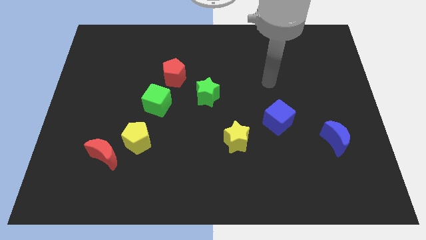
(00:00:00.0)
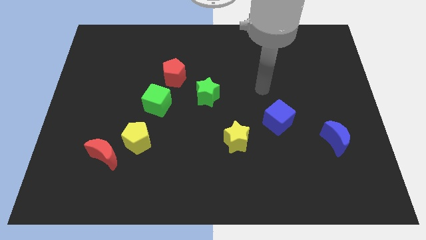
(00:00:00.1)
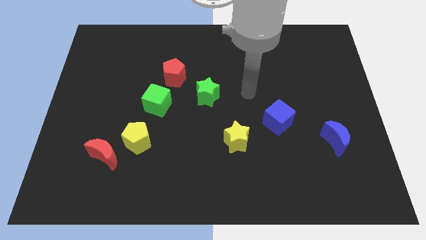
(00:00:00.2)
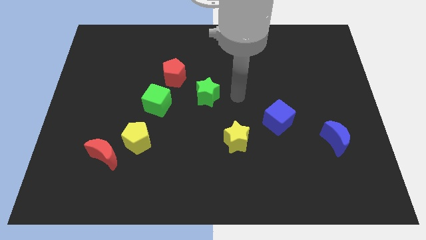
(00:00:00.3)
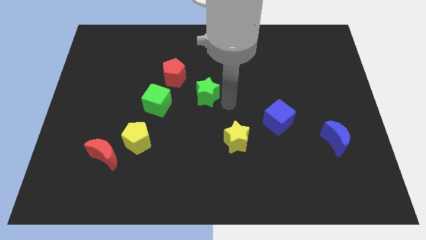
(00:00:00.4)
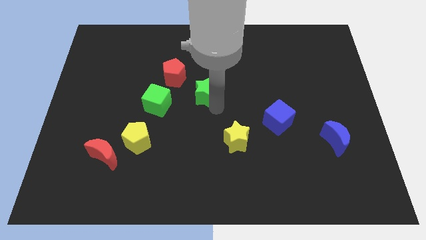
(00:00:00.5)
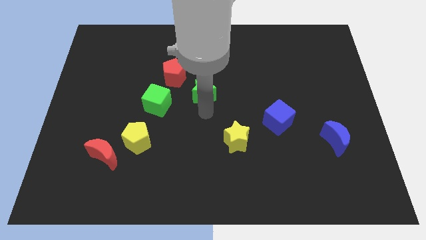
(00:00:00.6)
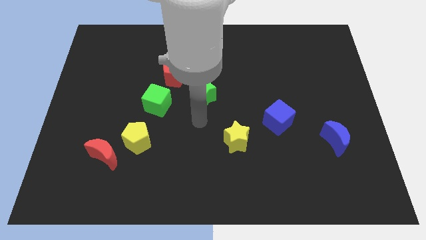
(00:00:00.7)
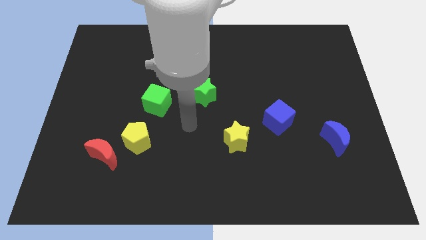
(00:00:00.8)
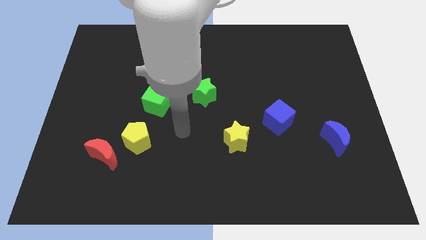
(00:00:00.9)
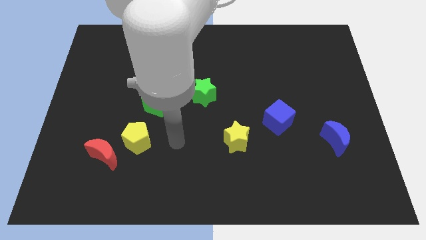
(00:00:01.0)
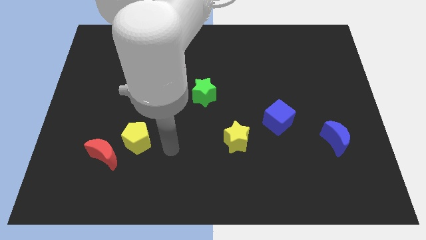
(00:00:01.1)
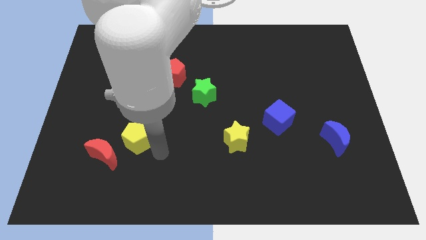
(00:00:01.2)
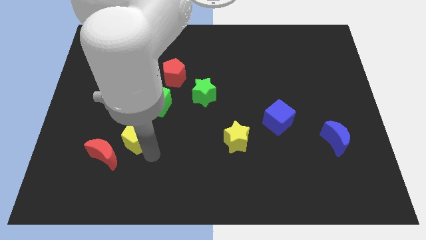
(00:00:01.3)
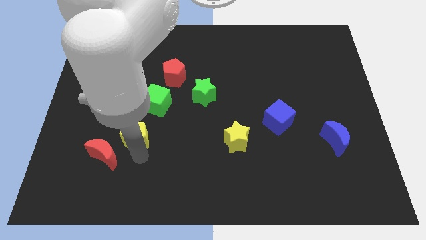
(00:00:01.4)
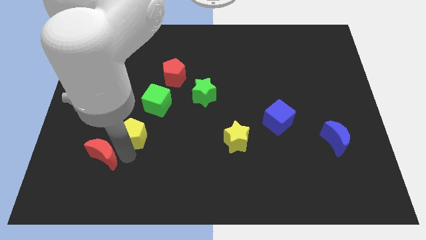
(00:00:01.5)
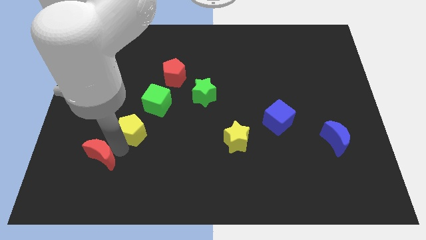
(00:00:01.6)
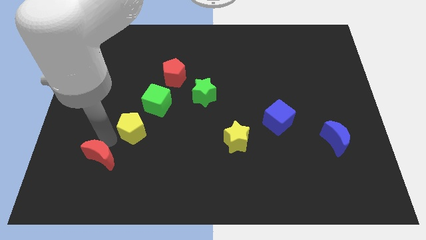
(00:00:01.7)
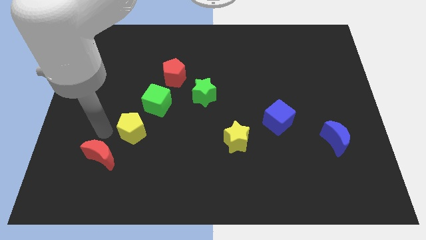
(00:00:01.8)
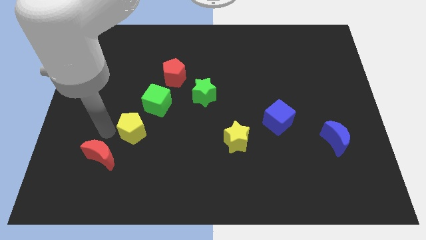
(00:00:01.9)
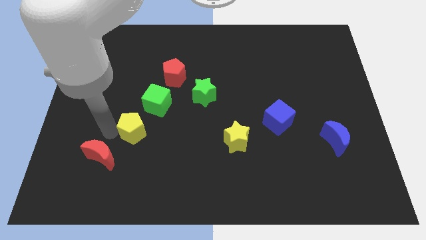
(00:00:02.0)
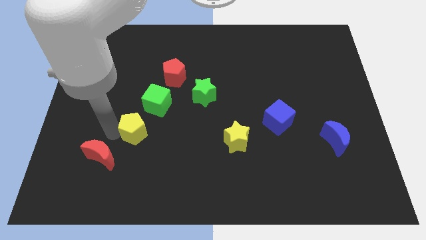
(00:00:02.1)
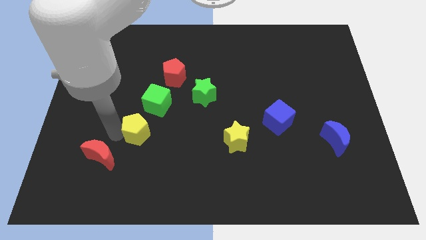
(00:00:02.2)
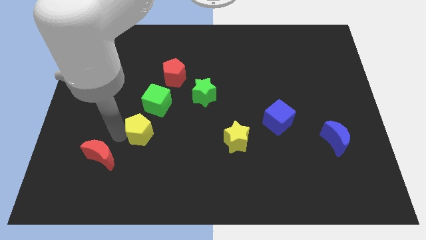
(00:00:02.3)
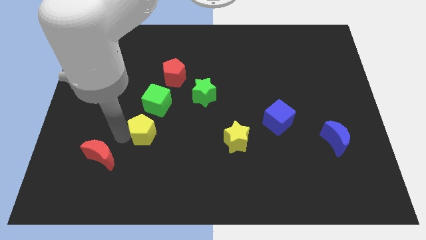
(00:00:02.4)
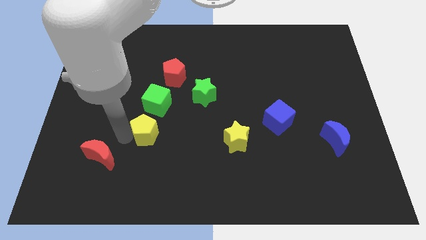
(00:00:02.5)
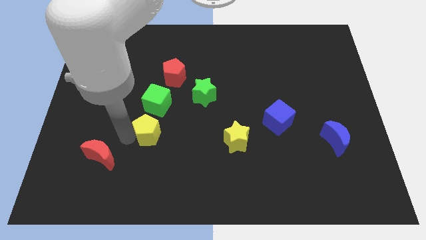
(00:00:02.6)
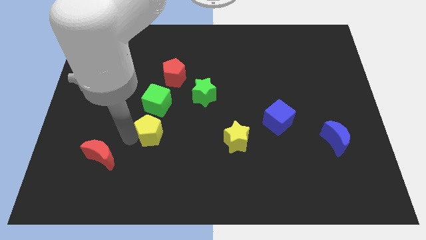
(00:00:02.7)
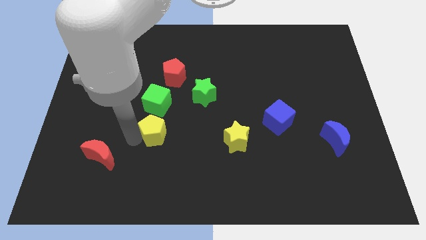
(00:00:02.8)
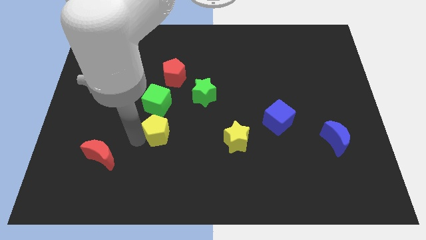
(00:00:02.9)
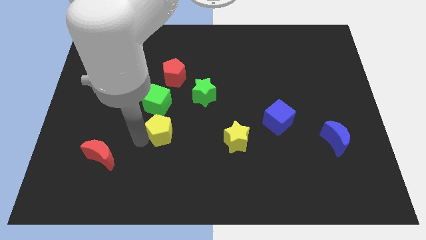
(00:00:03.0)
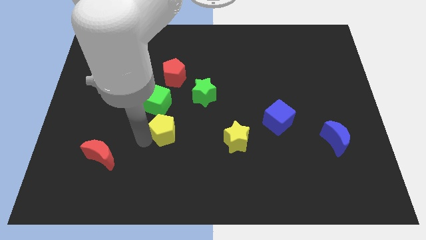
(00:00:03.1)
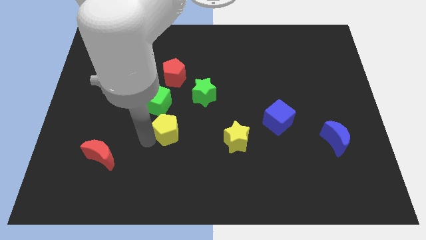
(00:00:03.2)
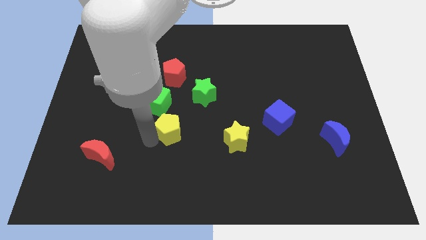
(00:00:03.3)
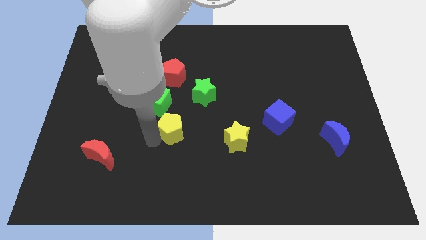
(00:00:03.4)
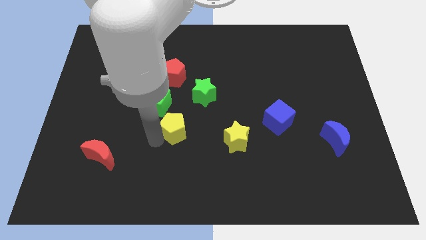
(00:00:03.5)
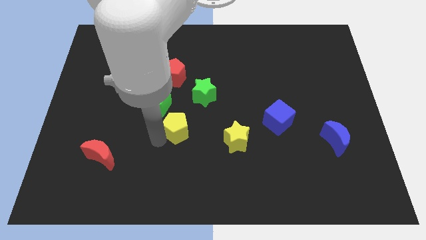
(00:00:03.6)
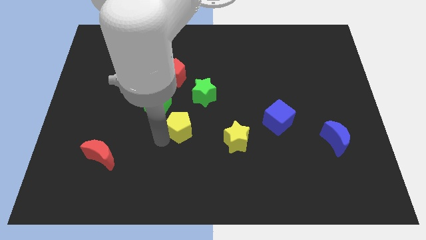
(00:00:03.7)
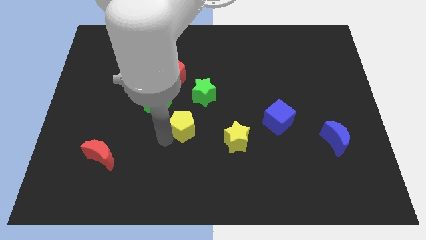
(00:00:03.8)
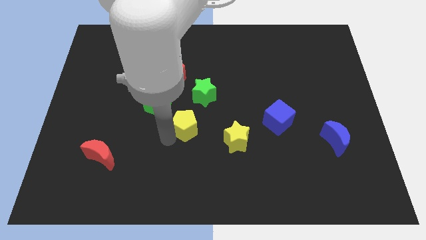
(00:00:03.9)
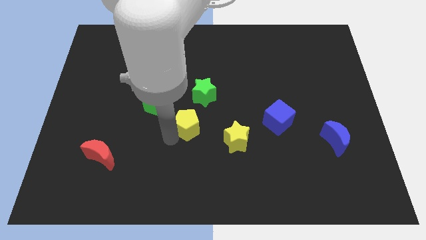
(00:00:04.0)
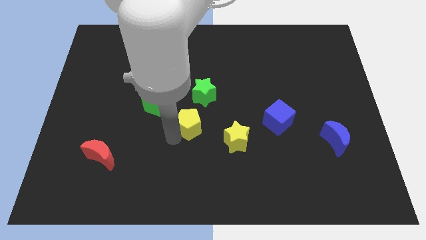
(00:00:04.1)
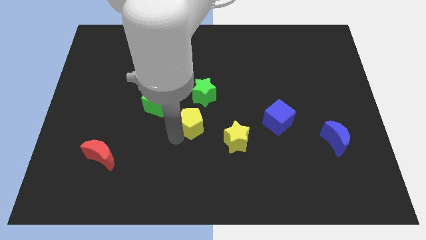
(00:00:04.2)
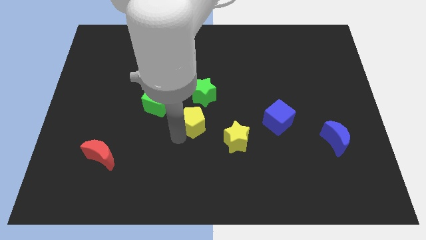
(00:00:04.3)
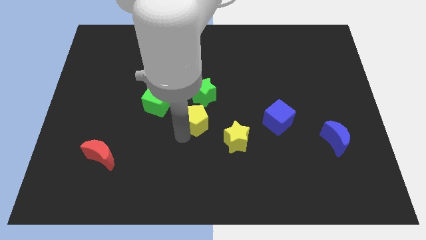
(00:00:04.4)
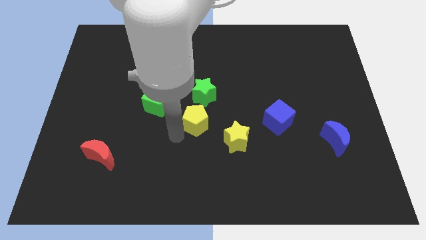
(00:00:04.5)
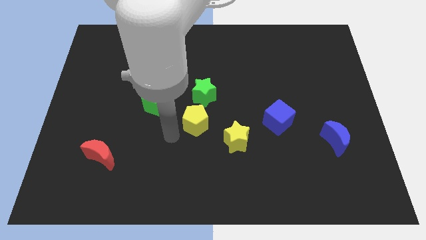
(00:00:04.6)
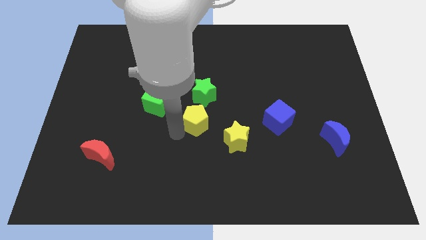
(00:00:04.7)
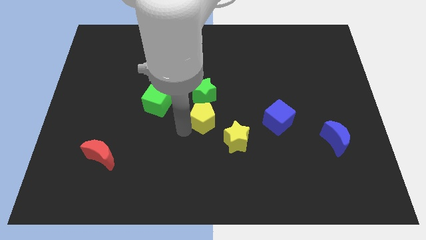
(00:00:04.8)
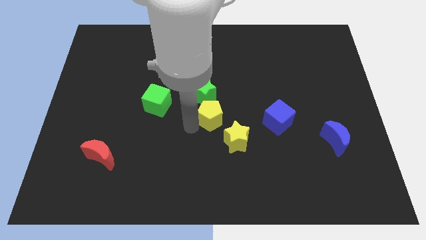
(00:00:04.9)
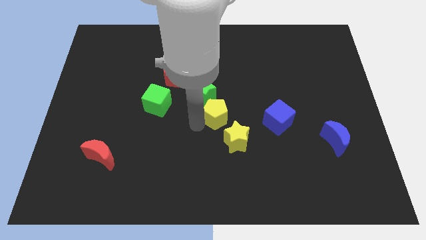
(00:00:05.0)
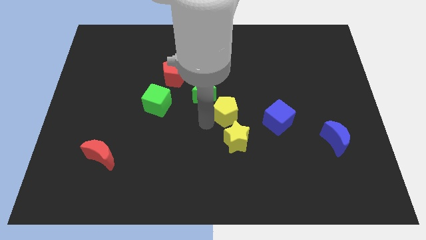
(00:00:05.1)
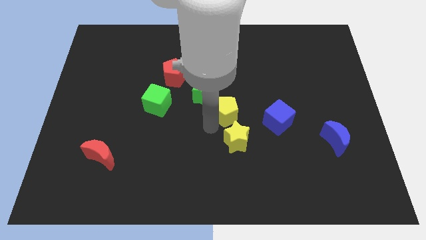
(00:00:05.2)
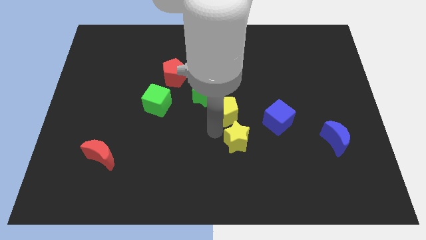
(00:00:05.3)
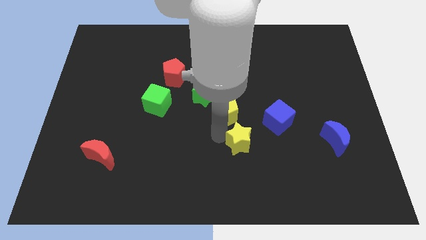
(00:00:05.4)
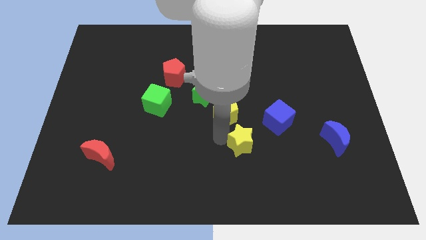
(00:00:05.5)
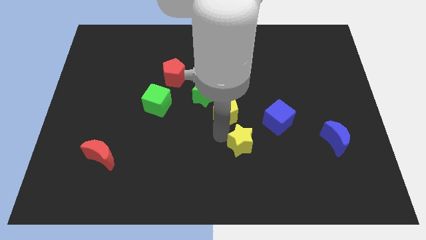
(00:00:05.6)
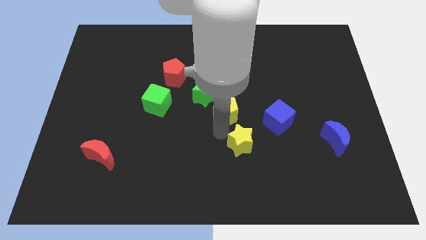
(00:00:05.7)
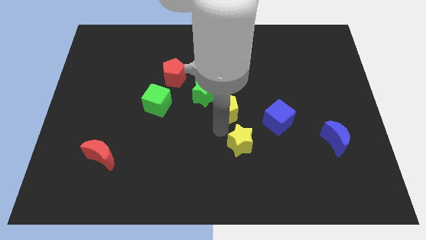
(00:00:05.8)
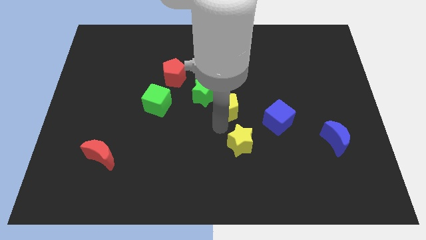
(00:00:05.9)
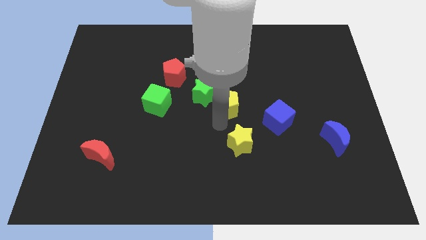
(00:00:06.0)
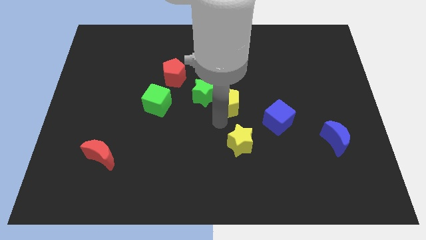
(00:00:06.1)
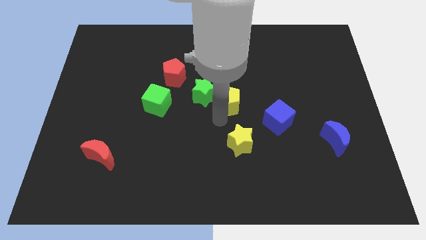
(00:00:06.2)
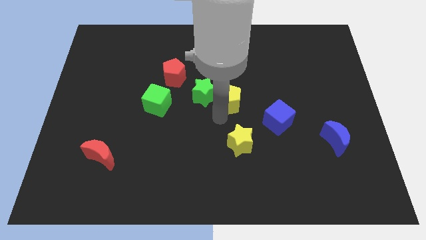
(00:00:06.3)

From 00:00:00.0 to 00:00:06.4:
push the yellow pentagon diagonally upwards and right

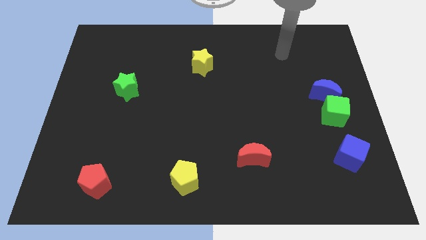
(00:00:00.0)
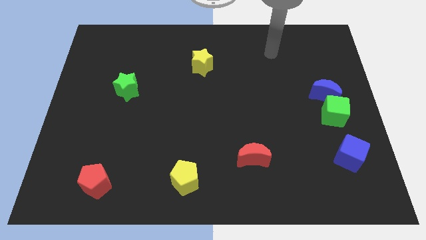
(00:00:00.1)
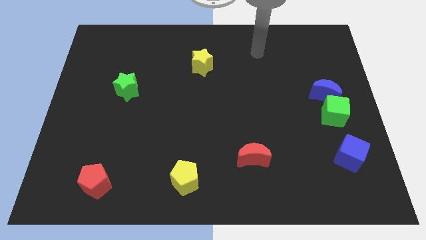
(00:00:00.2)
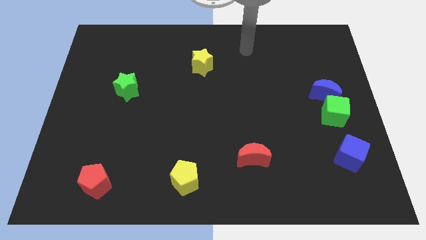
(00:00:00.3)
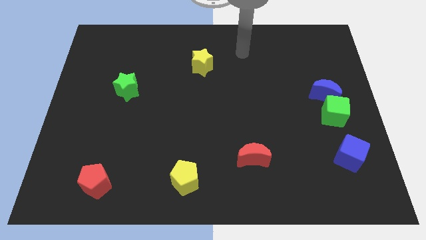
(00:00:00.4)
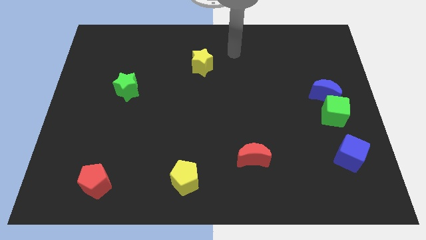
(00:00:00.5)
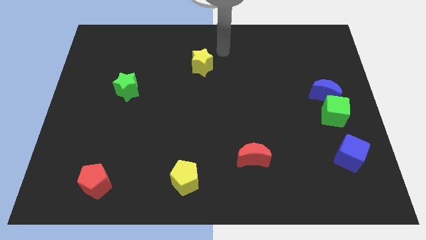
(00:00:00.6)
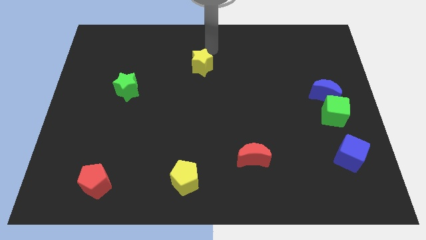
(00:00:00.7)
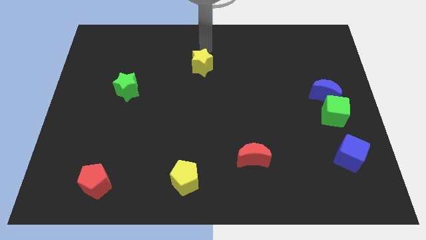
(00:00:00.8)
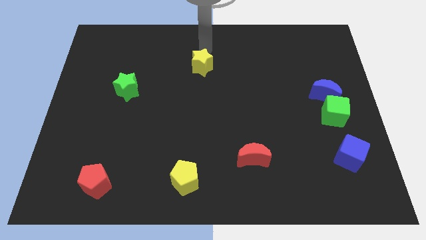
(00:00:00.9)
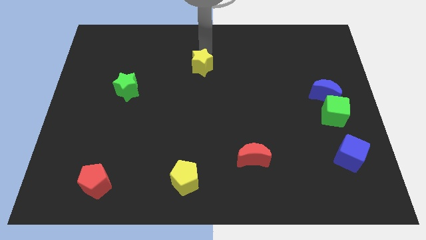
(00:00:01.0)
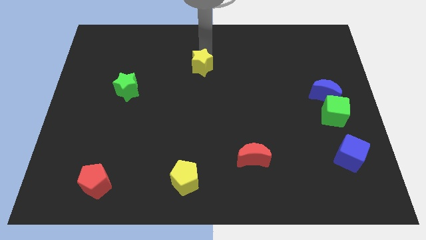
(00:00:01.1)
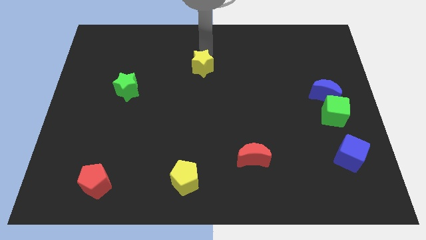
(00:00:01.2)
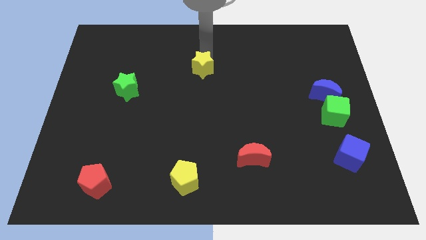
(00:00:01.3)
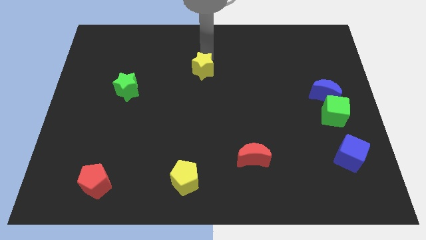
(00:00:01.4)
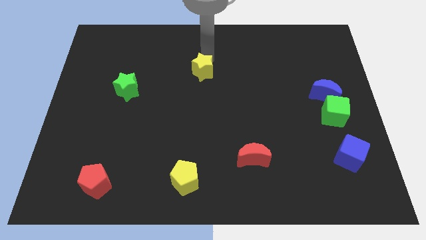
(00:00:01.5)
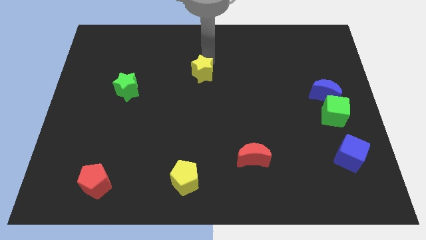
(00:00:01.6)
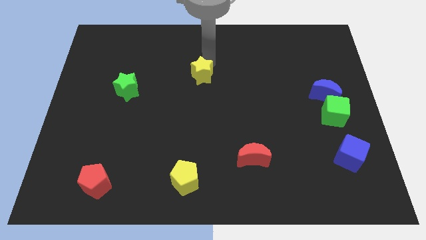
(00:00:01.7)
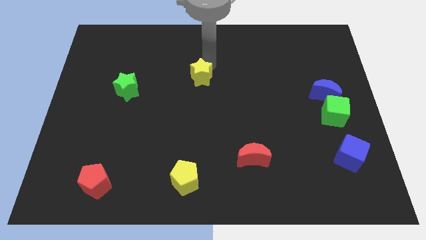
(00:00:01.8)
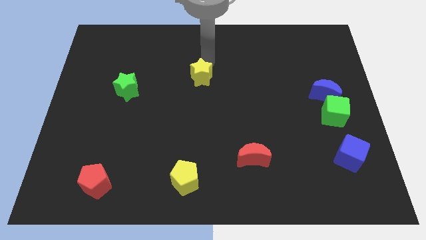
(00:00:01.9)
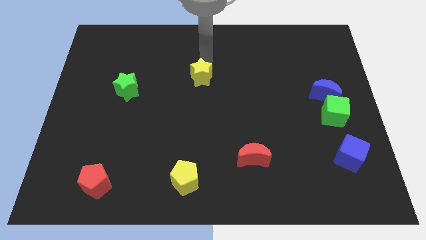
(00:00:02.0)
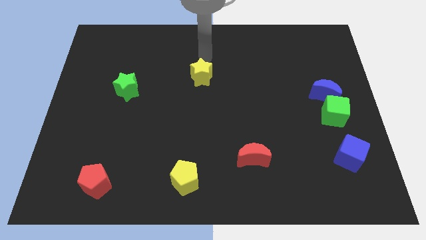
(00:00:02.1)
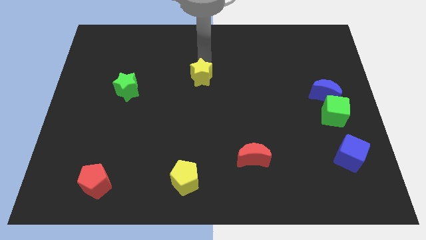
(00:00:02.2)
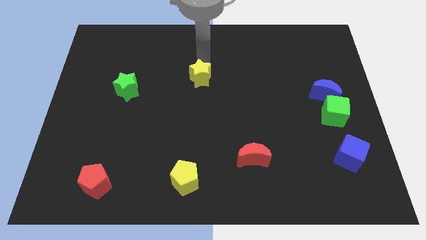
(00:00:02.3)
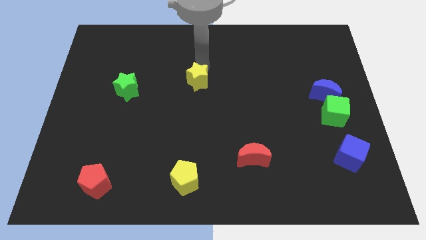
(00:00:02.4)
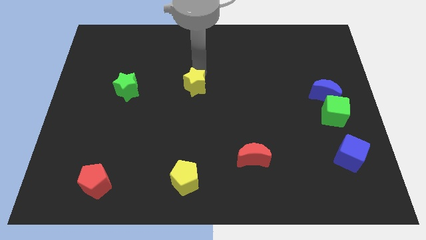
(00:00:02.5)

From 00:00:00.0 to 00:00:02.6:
move the yellow star a little bit downwards
